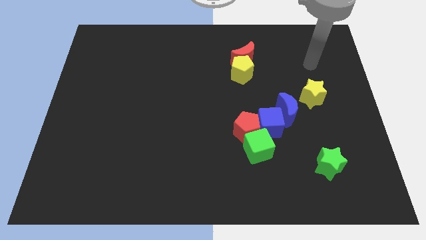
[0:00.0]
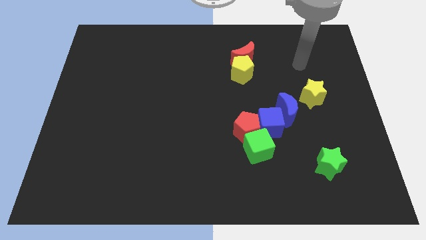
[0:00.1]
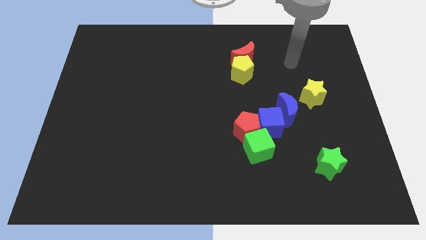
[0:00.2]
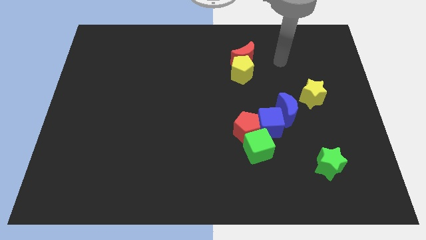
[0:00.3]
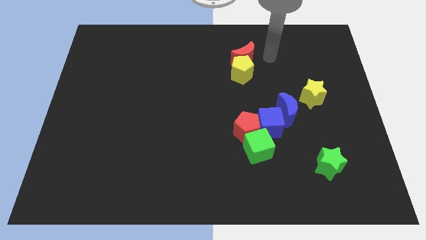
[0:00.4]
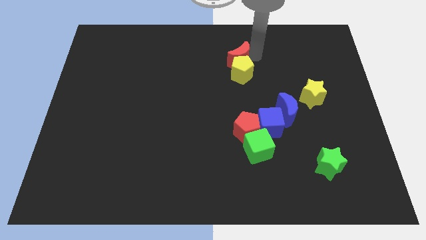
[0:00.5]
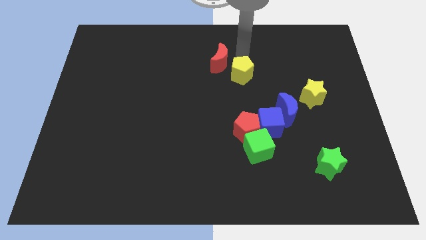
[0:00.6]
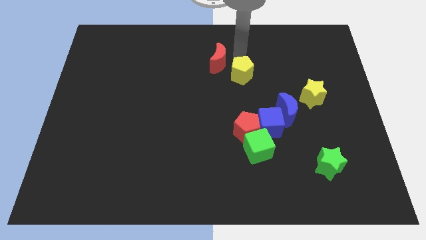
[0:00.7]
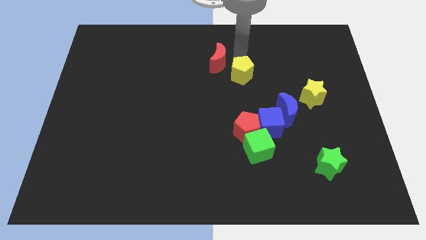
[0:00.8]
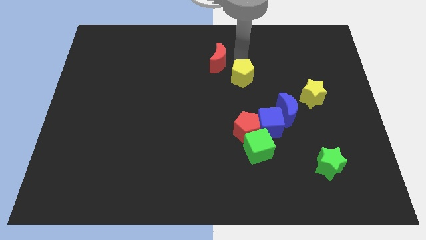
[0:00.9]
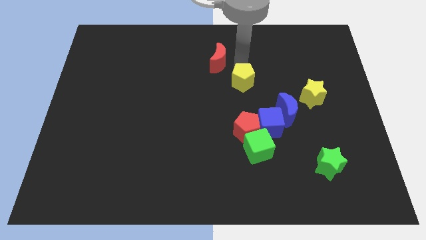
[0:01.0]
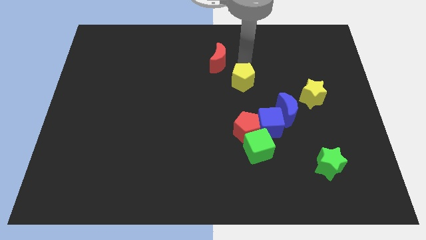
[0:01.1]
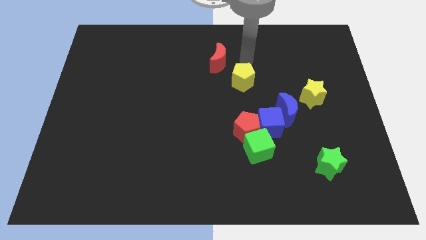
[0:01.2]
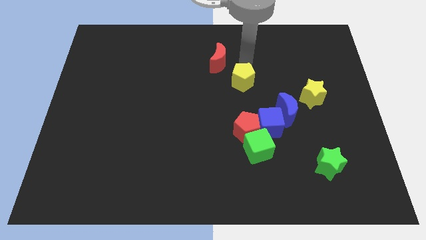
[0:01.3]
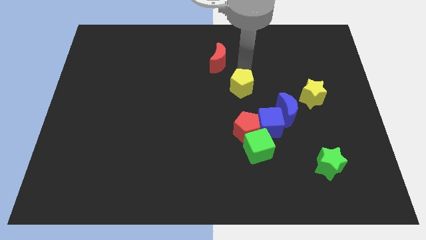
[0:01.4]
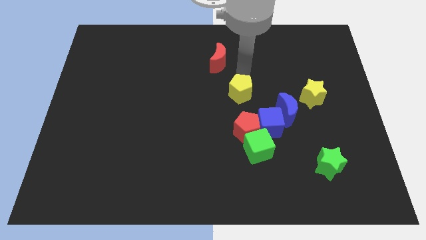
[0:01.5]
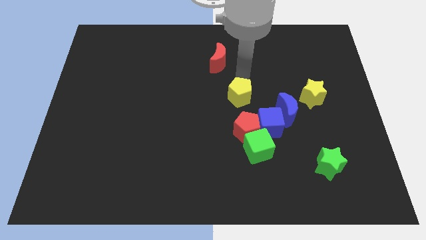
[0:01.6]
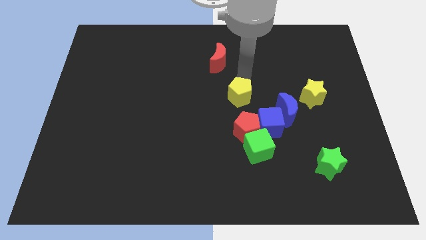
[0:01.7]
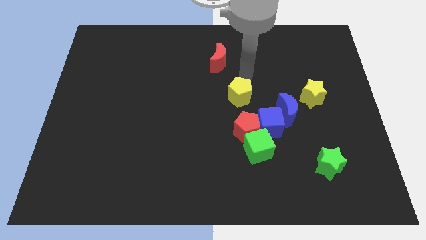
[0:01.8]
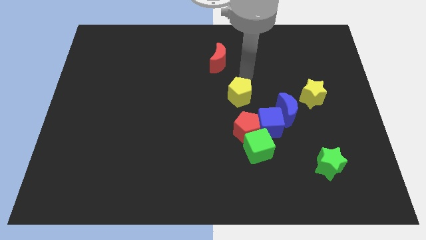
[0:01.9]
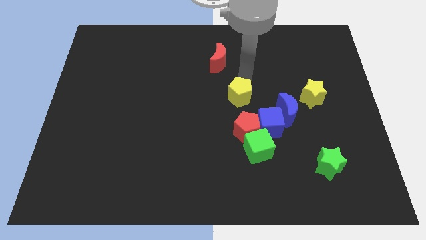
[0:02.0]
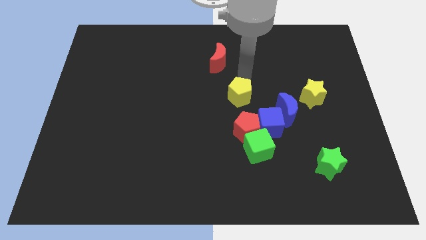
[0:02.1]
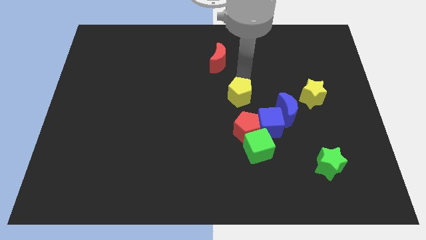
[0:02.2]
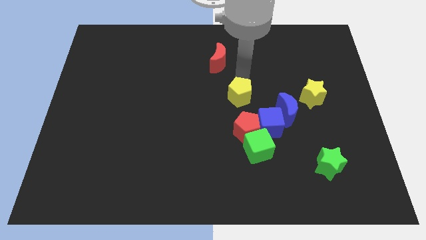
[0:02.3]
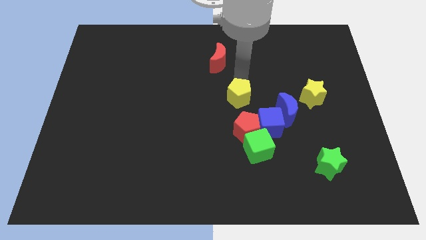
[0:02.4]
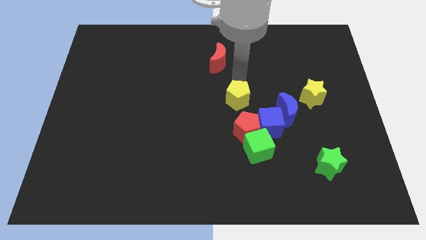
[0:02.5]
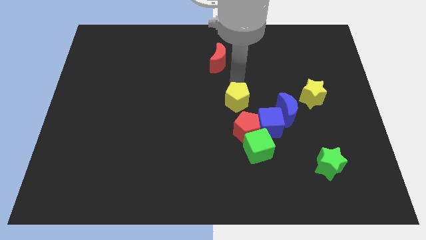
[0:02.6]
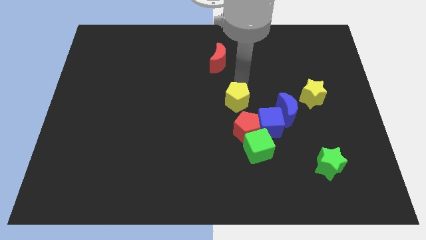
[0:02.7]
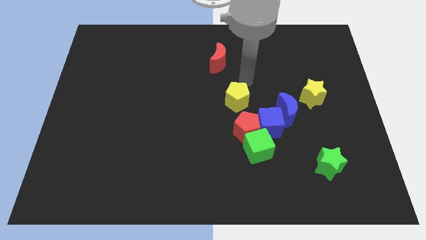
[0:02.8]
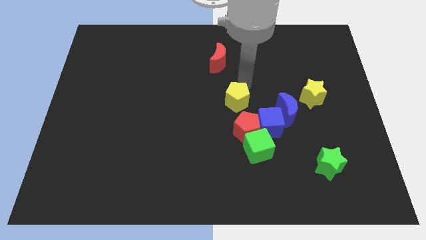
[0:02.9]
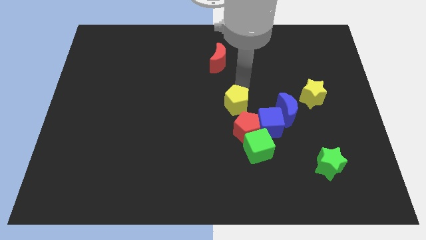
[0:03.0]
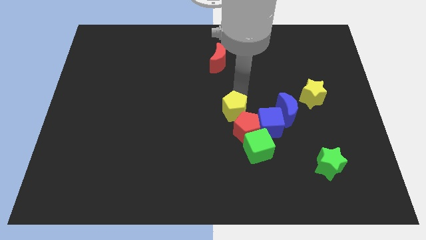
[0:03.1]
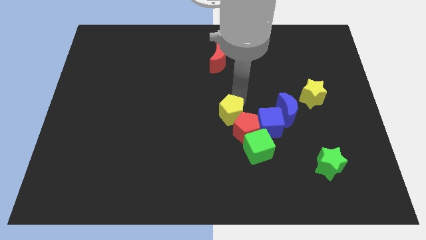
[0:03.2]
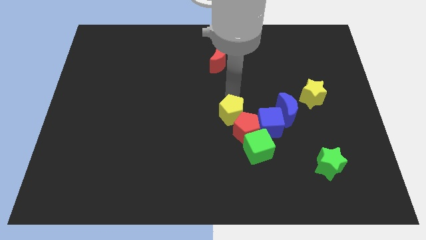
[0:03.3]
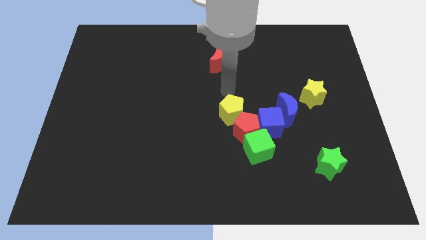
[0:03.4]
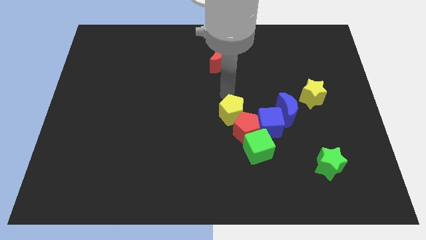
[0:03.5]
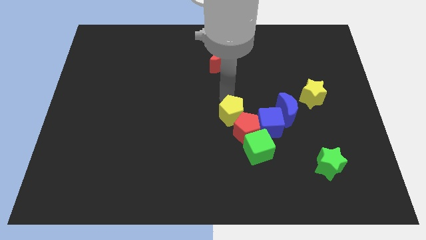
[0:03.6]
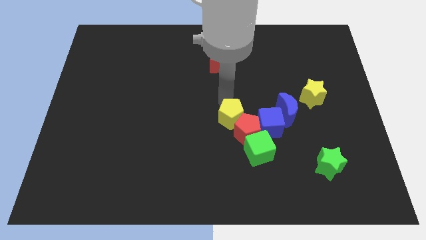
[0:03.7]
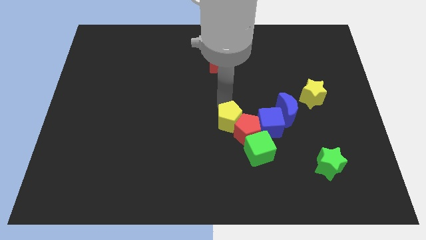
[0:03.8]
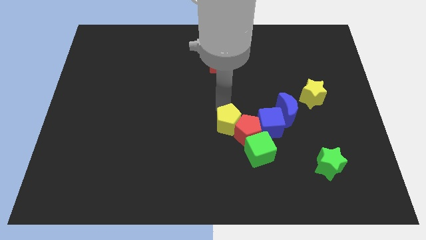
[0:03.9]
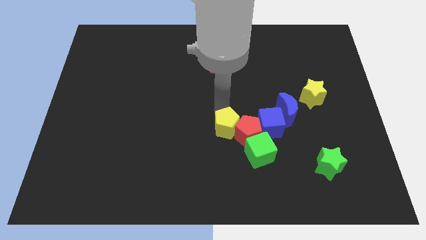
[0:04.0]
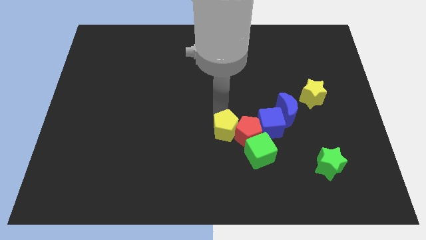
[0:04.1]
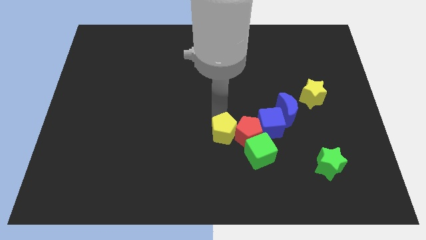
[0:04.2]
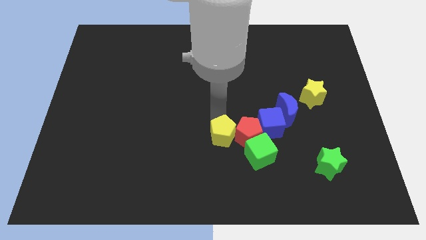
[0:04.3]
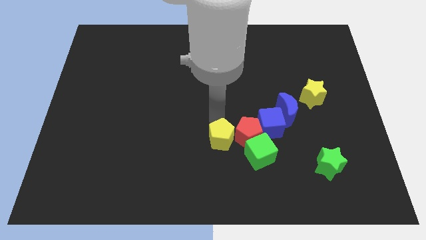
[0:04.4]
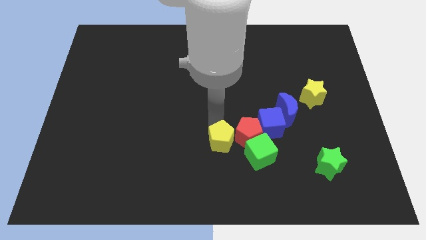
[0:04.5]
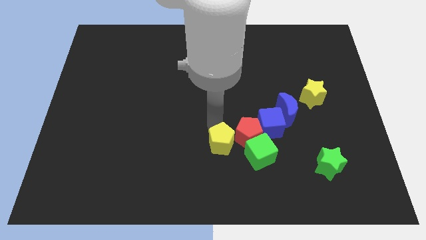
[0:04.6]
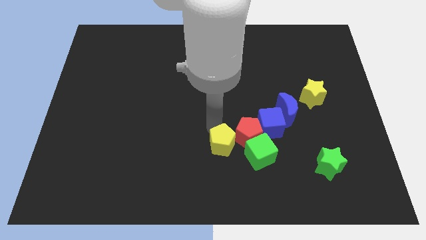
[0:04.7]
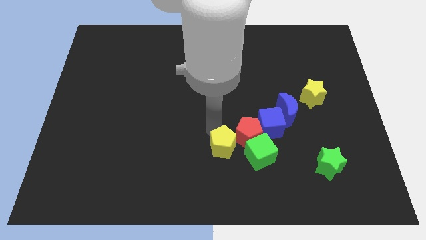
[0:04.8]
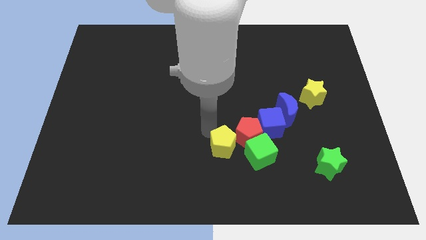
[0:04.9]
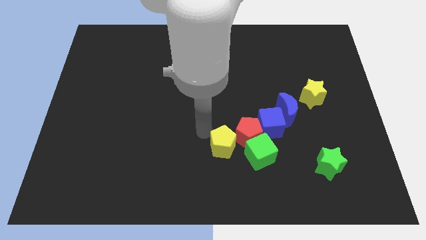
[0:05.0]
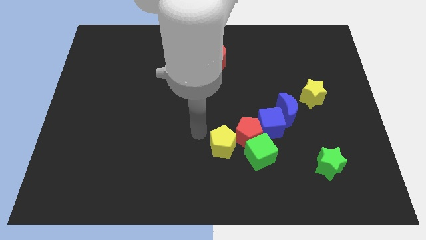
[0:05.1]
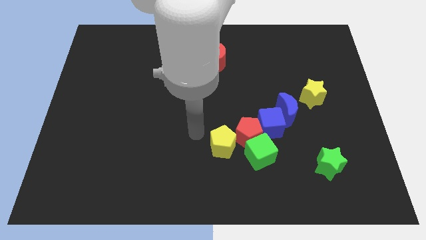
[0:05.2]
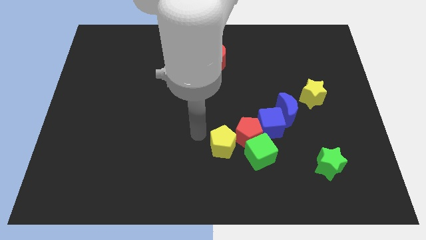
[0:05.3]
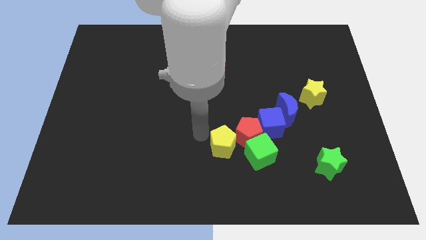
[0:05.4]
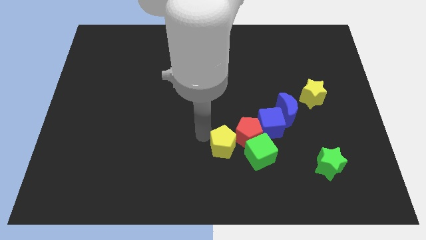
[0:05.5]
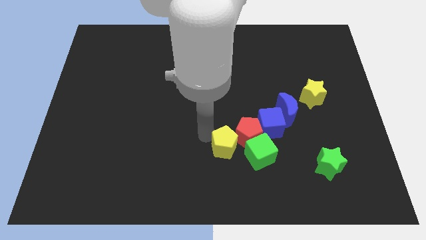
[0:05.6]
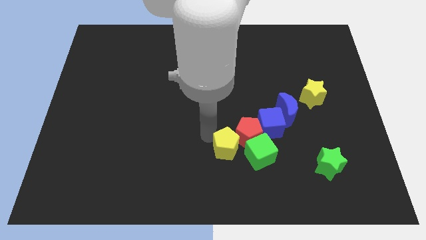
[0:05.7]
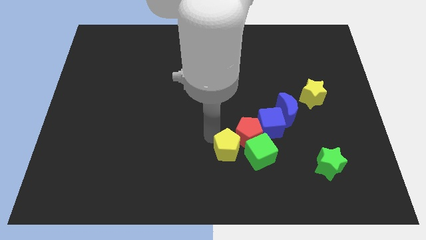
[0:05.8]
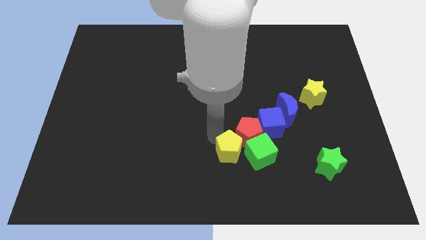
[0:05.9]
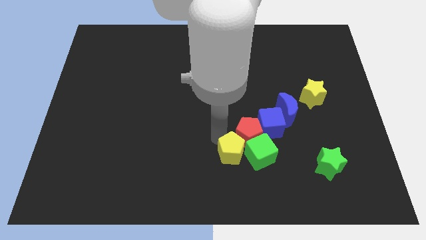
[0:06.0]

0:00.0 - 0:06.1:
push the yellow pentagon next to the green cube

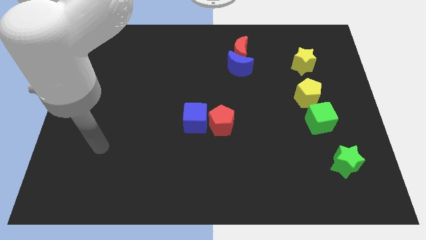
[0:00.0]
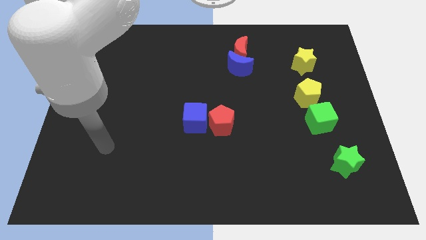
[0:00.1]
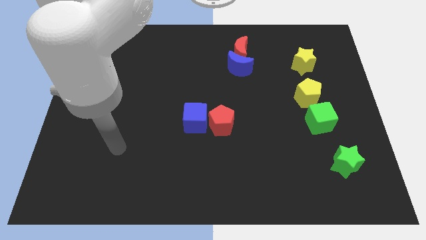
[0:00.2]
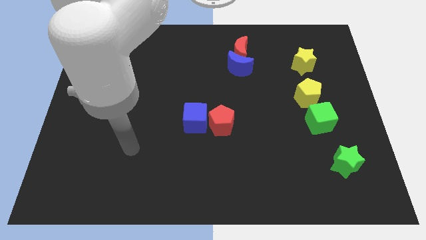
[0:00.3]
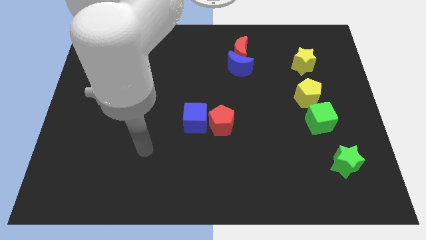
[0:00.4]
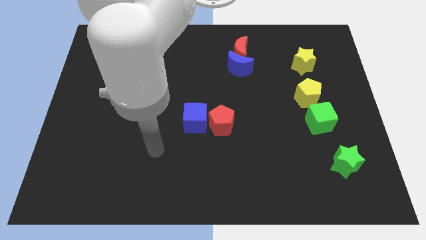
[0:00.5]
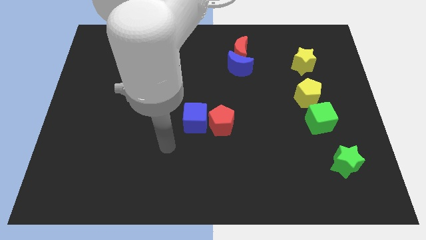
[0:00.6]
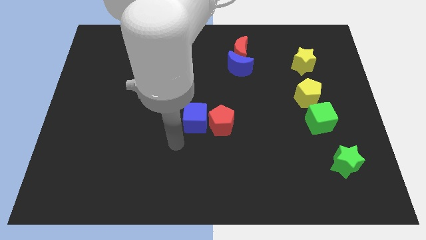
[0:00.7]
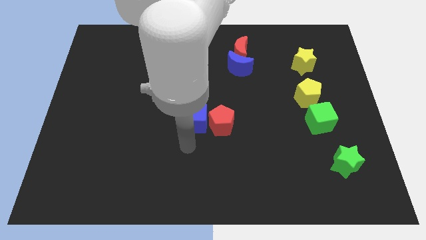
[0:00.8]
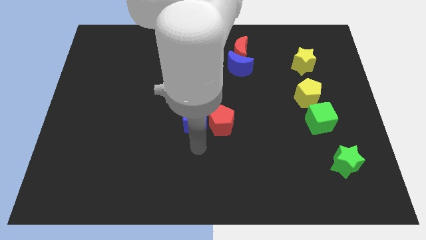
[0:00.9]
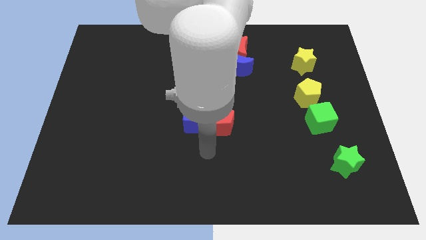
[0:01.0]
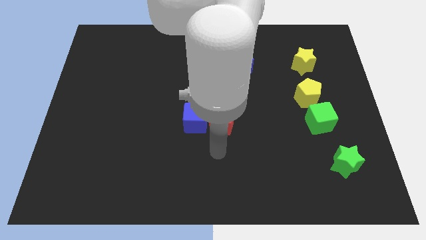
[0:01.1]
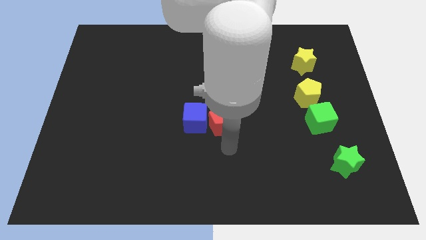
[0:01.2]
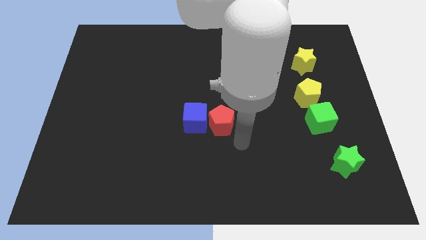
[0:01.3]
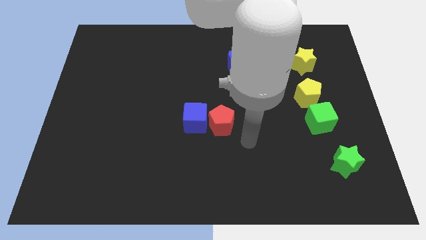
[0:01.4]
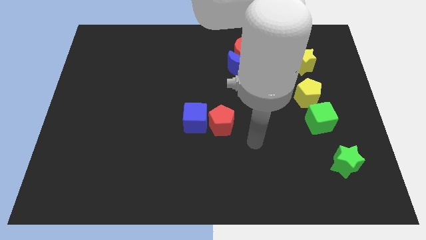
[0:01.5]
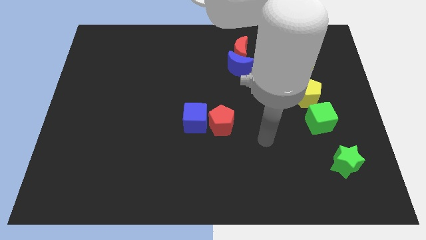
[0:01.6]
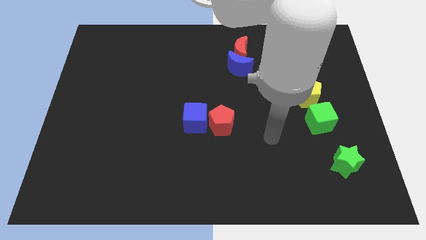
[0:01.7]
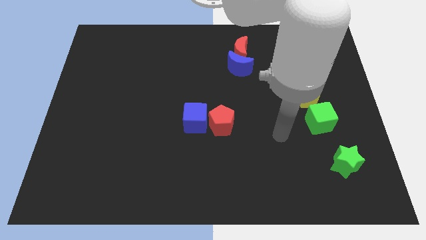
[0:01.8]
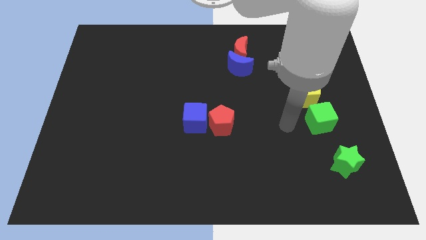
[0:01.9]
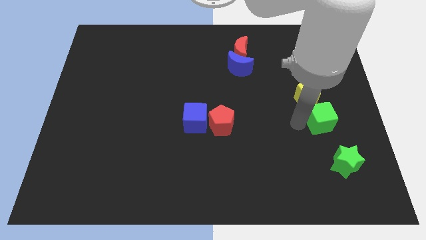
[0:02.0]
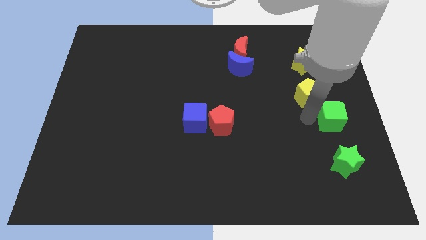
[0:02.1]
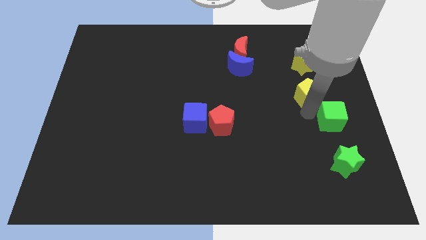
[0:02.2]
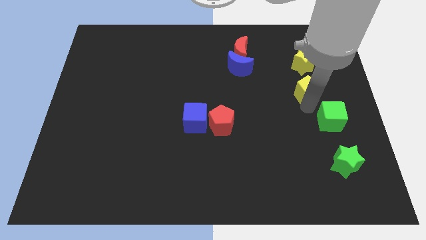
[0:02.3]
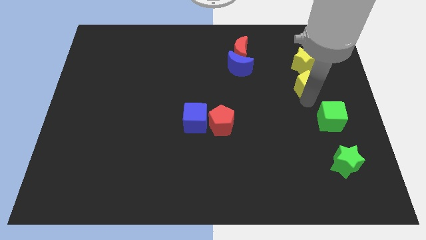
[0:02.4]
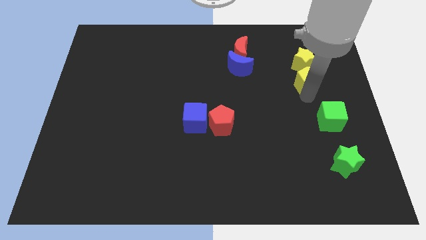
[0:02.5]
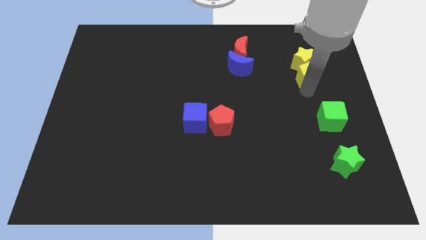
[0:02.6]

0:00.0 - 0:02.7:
move the yellow pentagon close to the yellow star
